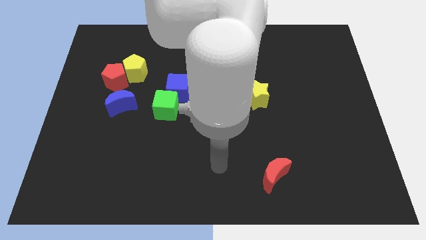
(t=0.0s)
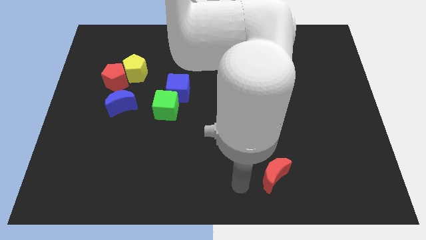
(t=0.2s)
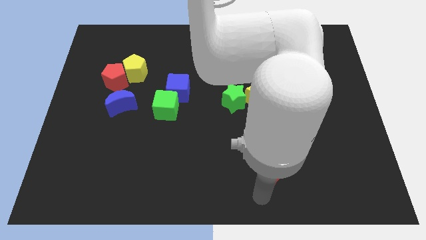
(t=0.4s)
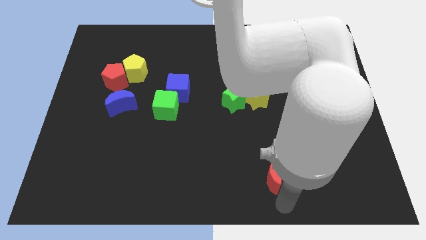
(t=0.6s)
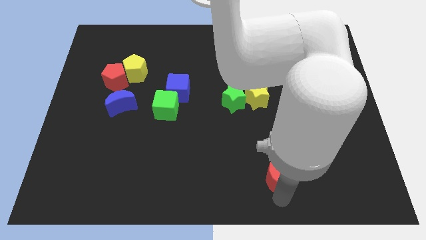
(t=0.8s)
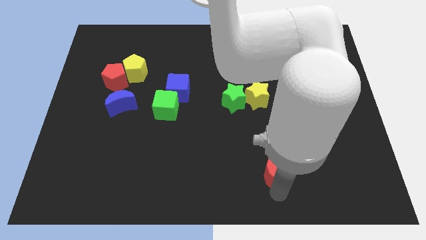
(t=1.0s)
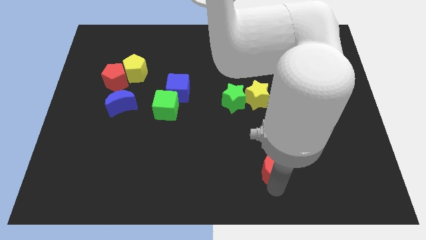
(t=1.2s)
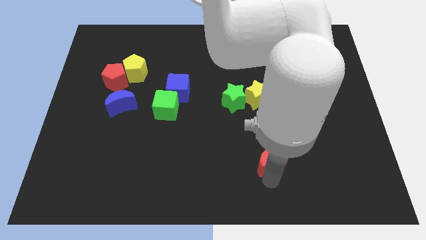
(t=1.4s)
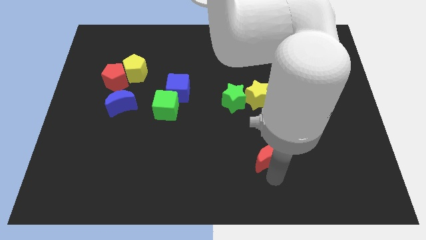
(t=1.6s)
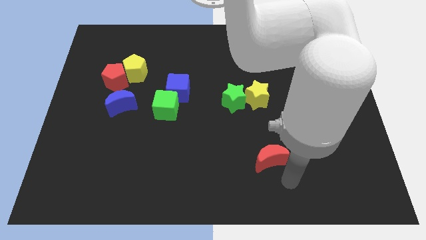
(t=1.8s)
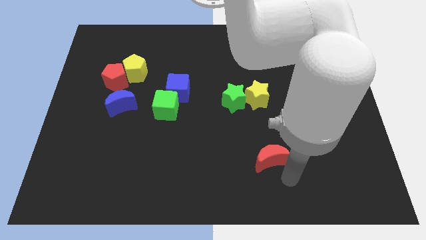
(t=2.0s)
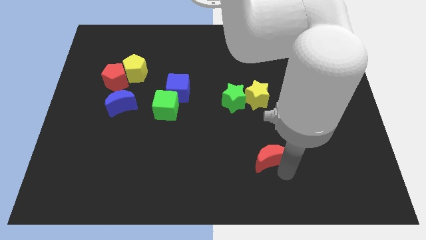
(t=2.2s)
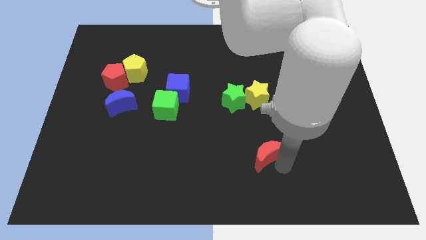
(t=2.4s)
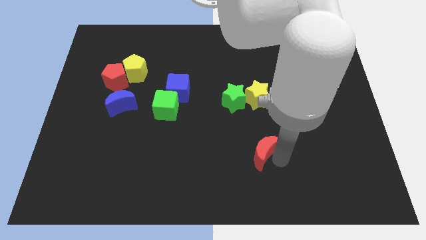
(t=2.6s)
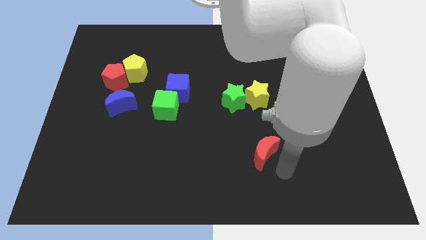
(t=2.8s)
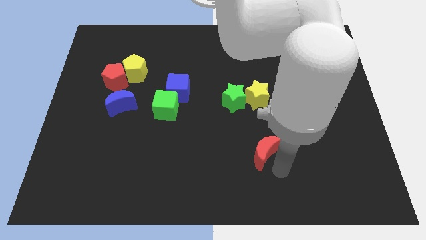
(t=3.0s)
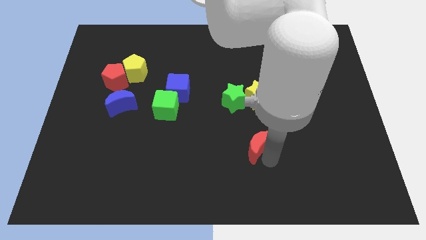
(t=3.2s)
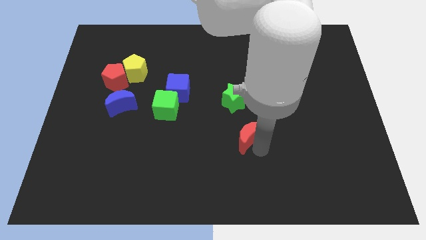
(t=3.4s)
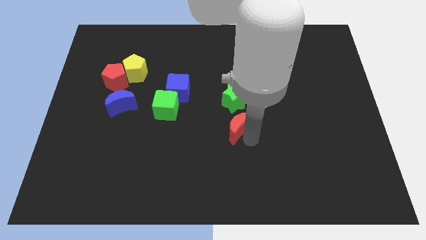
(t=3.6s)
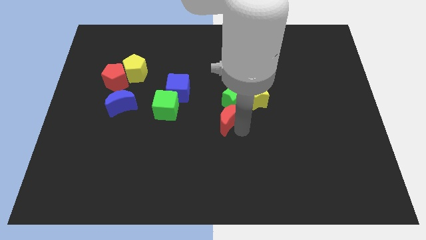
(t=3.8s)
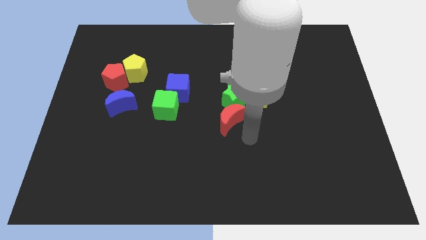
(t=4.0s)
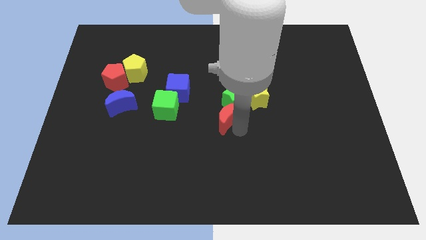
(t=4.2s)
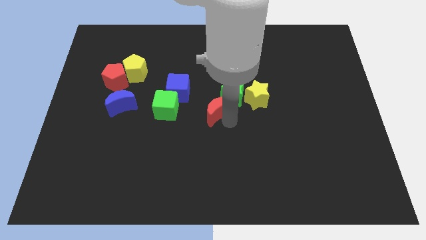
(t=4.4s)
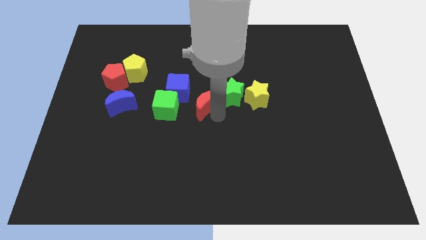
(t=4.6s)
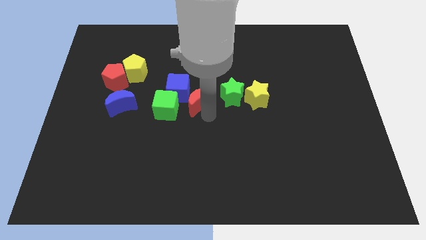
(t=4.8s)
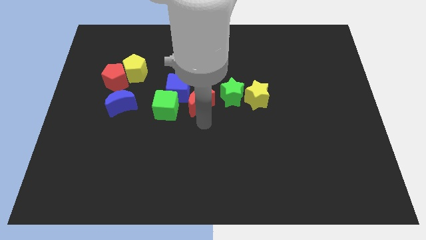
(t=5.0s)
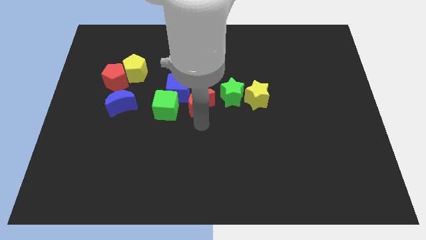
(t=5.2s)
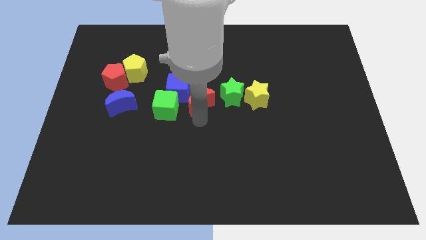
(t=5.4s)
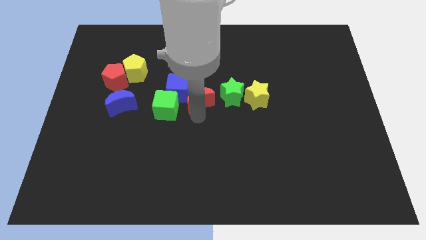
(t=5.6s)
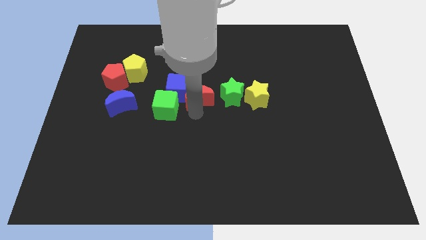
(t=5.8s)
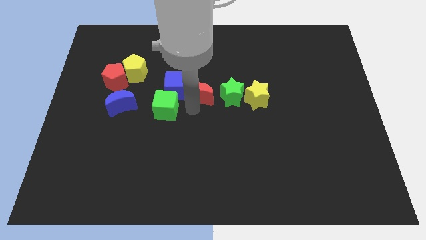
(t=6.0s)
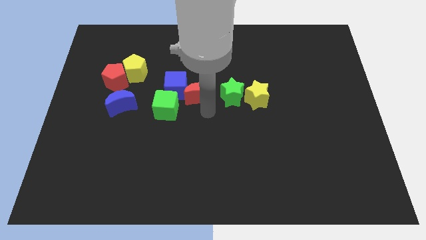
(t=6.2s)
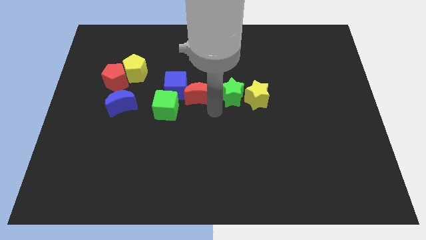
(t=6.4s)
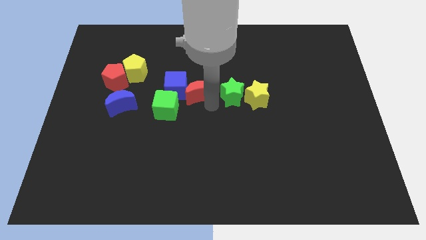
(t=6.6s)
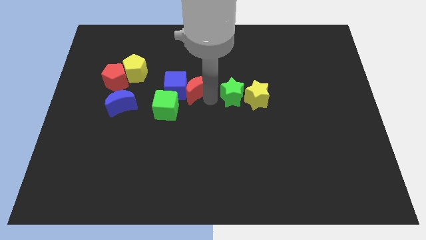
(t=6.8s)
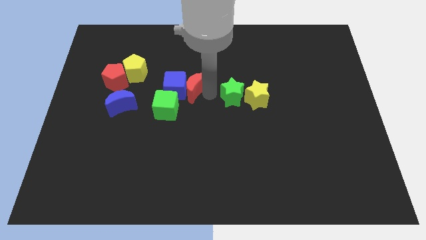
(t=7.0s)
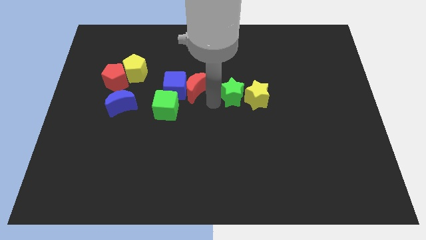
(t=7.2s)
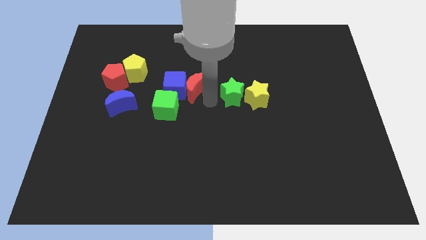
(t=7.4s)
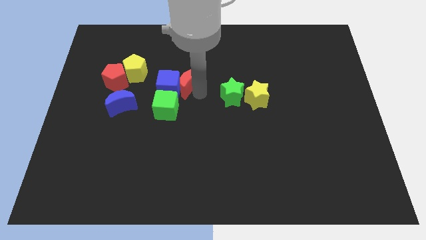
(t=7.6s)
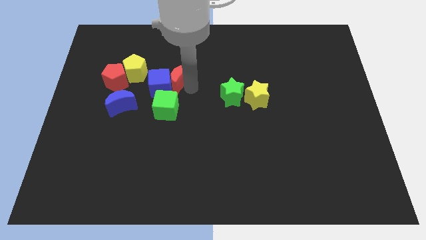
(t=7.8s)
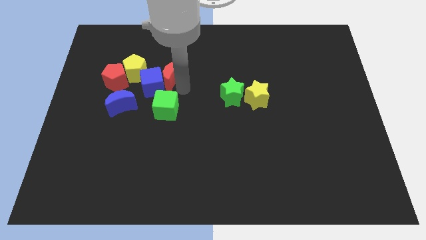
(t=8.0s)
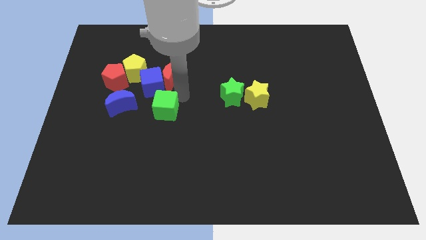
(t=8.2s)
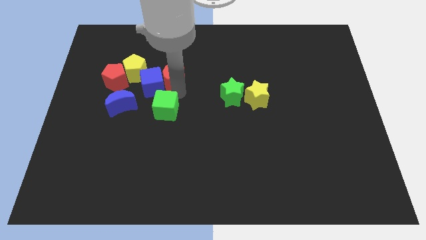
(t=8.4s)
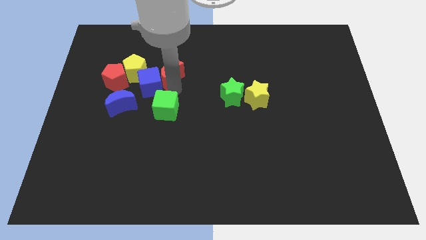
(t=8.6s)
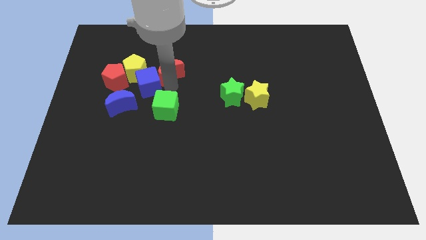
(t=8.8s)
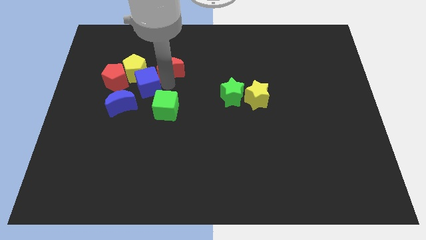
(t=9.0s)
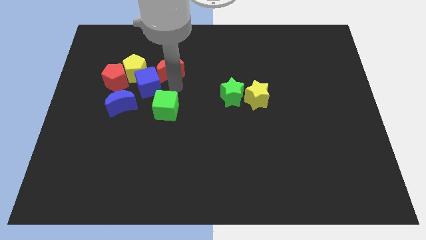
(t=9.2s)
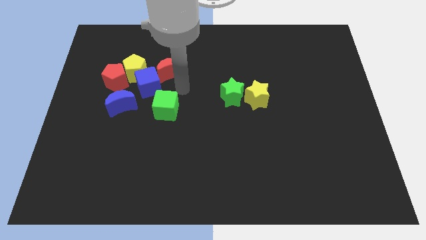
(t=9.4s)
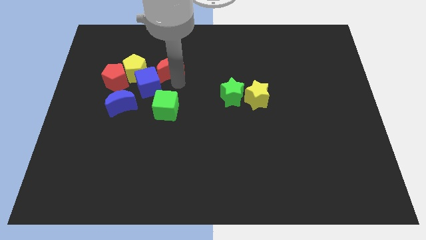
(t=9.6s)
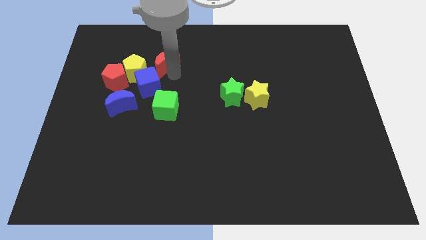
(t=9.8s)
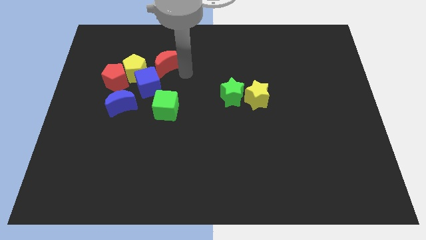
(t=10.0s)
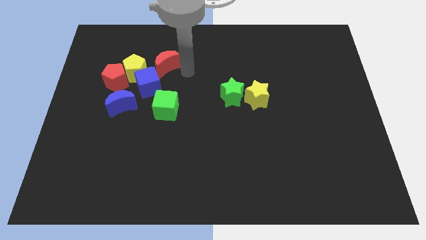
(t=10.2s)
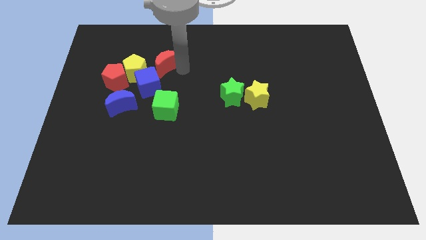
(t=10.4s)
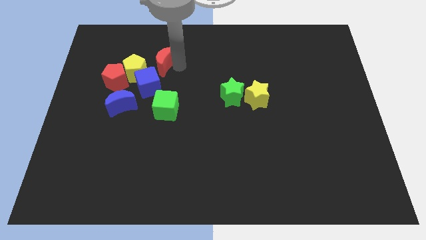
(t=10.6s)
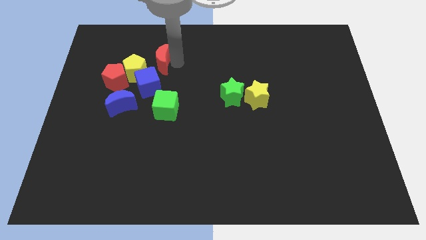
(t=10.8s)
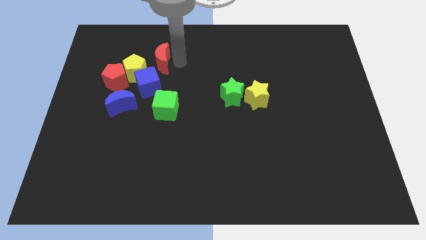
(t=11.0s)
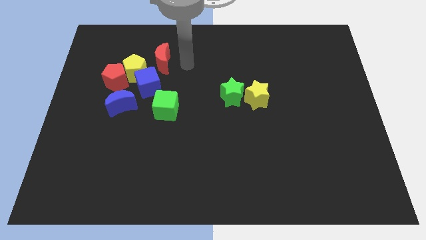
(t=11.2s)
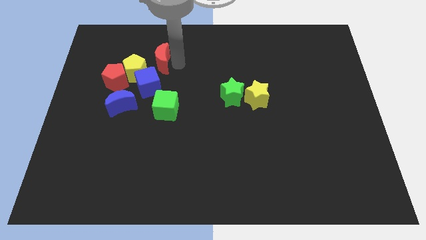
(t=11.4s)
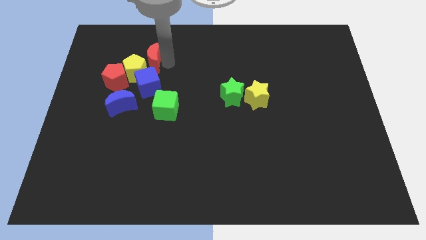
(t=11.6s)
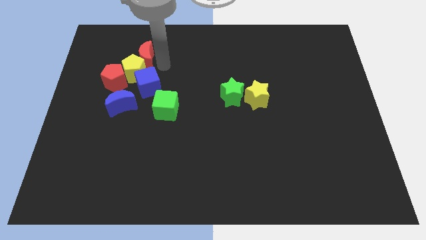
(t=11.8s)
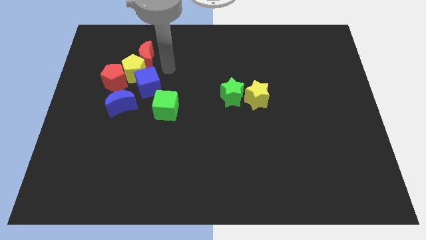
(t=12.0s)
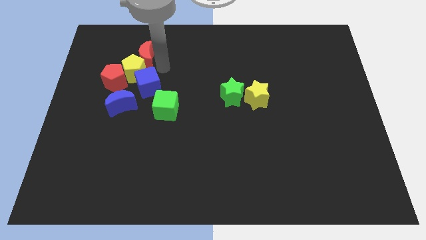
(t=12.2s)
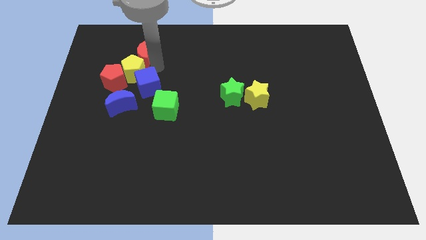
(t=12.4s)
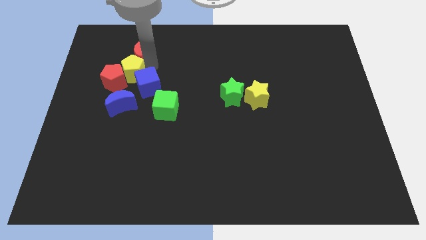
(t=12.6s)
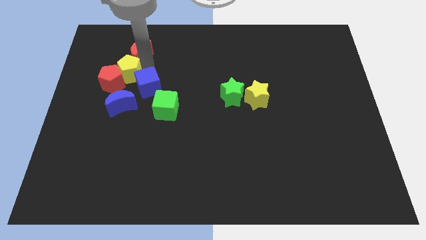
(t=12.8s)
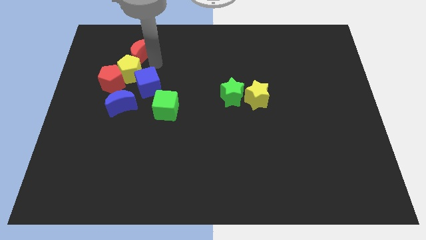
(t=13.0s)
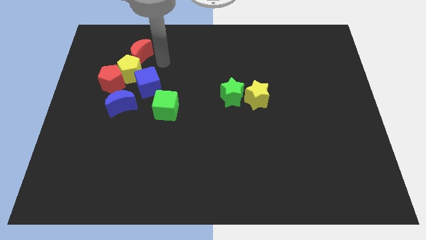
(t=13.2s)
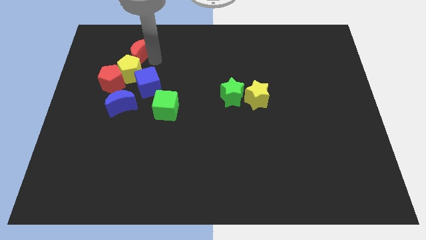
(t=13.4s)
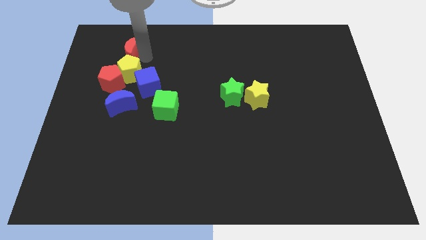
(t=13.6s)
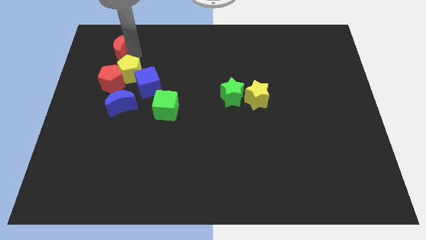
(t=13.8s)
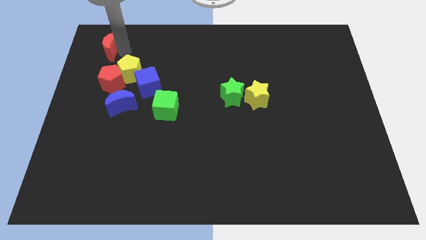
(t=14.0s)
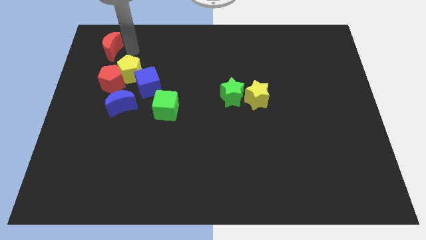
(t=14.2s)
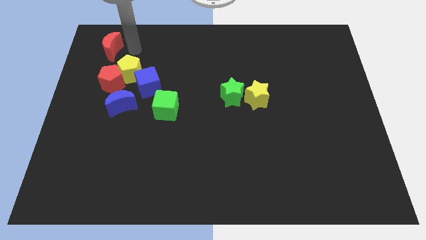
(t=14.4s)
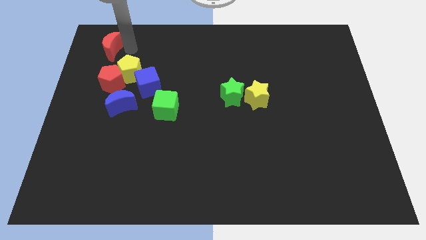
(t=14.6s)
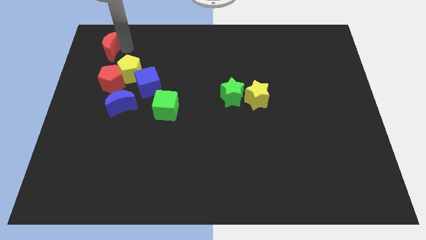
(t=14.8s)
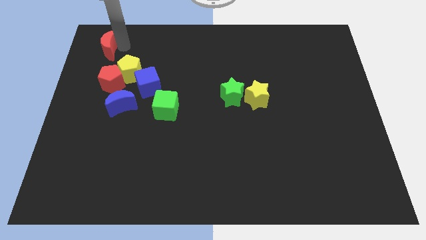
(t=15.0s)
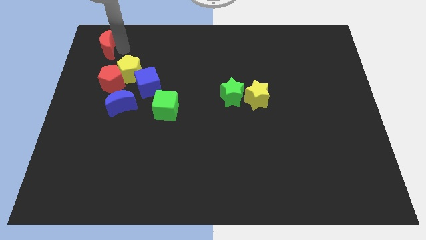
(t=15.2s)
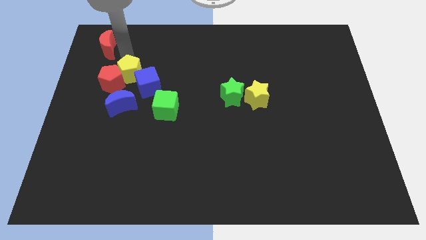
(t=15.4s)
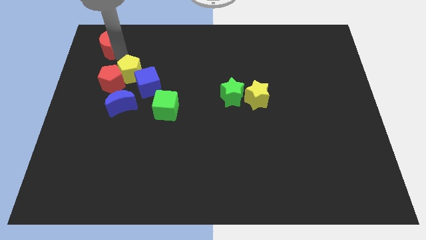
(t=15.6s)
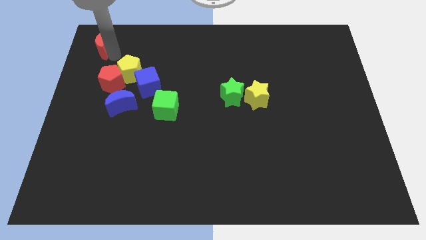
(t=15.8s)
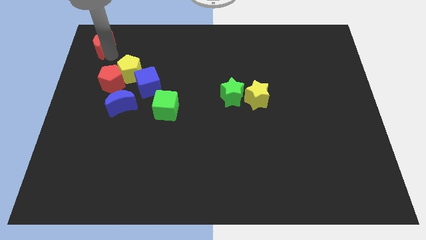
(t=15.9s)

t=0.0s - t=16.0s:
put the red moon to the top left of the board
